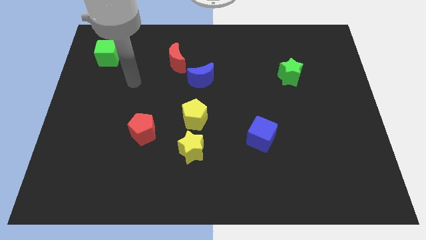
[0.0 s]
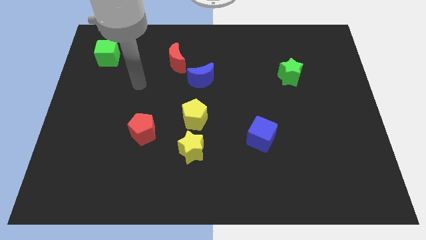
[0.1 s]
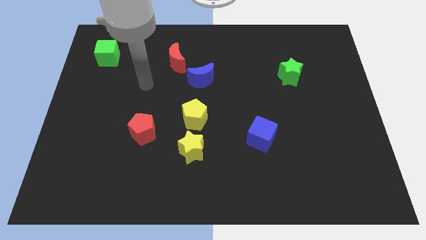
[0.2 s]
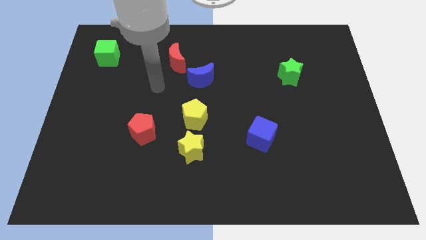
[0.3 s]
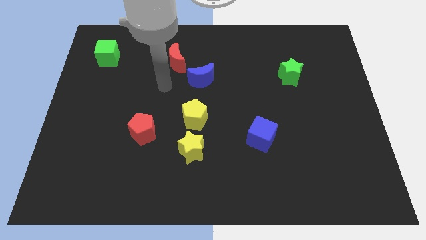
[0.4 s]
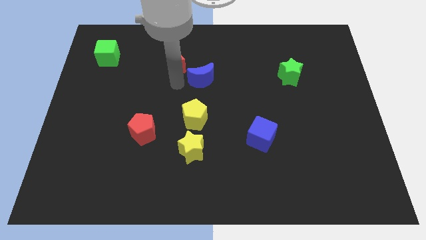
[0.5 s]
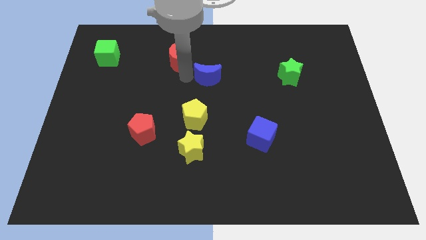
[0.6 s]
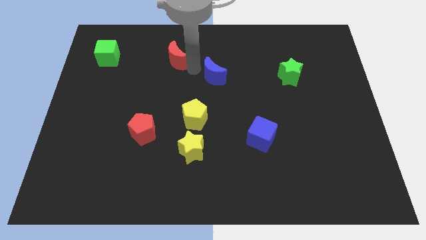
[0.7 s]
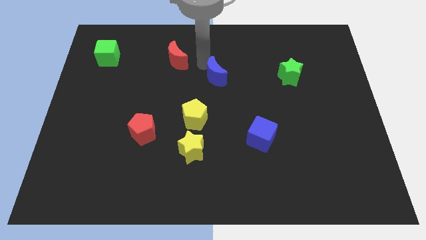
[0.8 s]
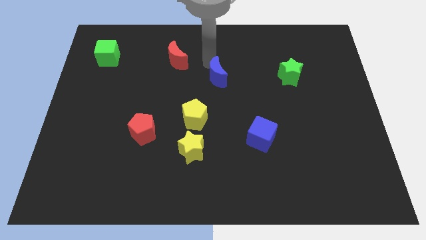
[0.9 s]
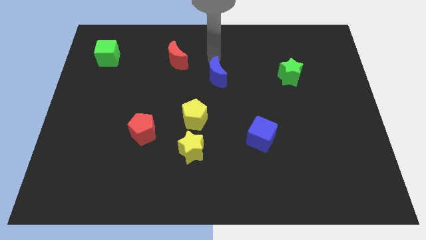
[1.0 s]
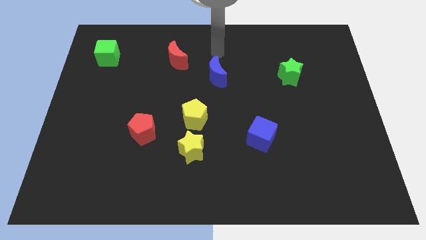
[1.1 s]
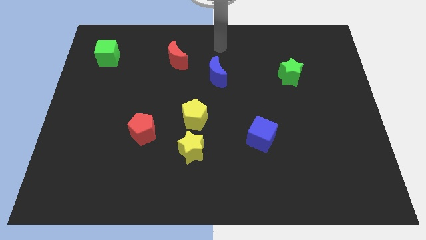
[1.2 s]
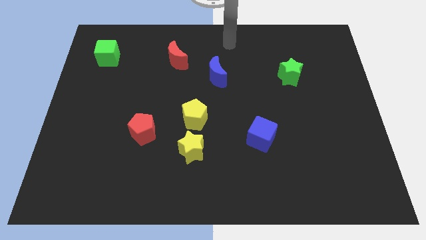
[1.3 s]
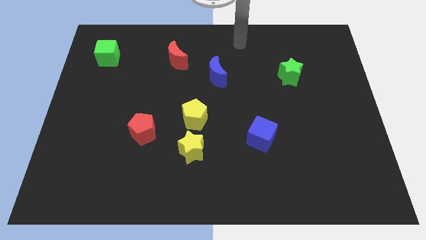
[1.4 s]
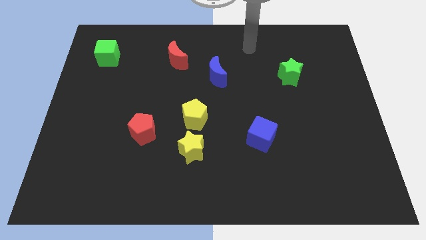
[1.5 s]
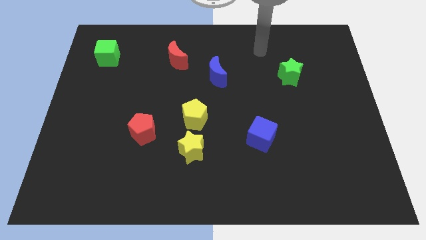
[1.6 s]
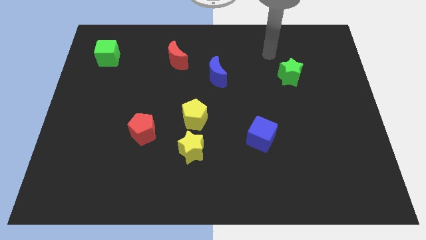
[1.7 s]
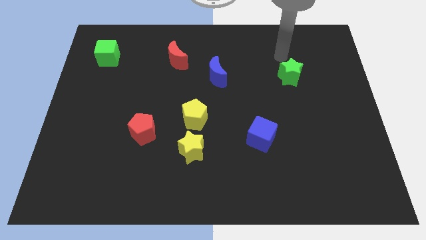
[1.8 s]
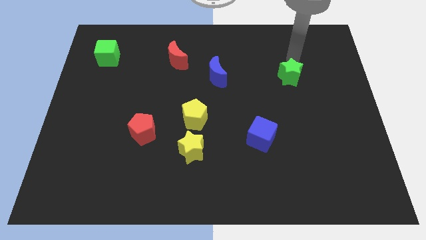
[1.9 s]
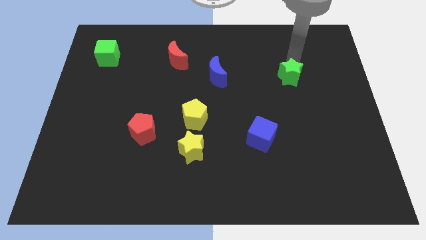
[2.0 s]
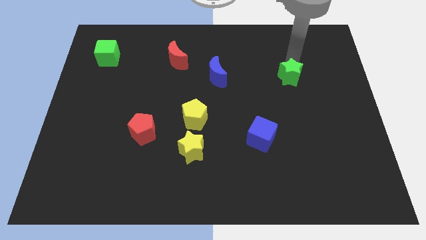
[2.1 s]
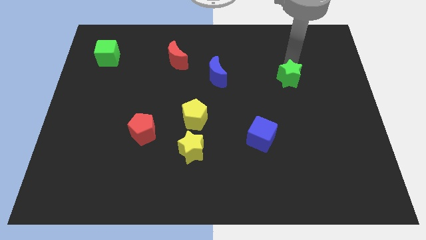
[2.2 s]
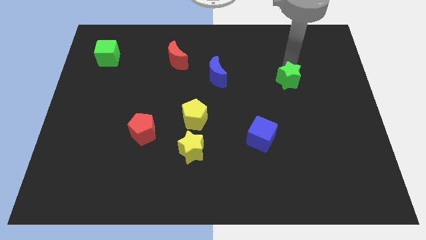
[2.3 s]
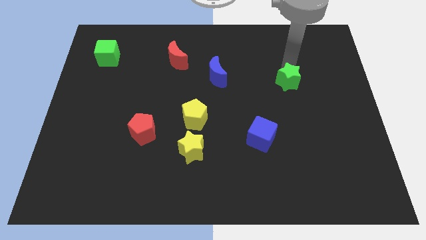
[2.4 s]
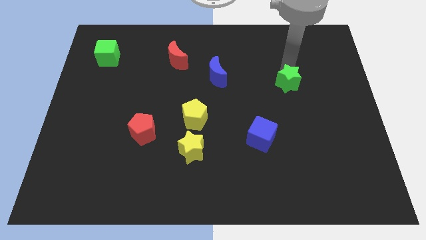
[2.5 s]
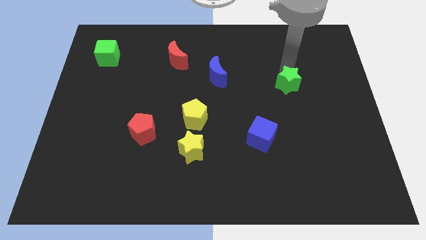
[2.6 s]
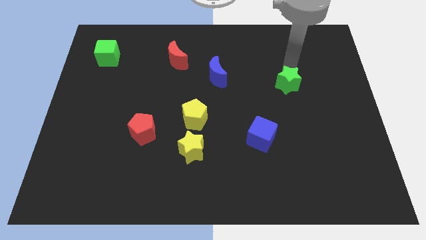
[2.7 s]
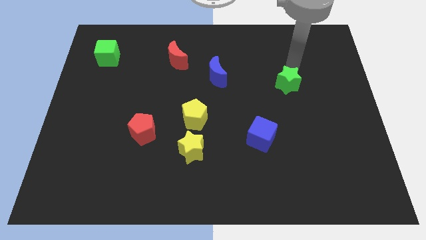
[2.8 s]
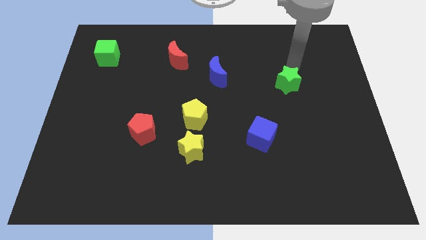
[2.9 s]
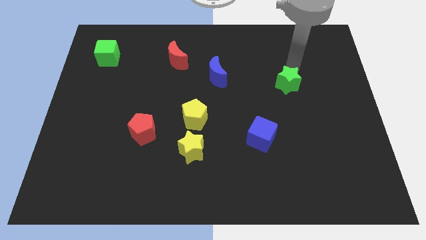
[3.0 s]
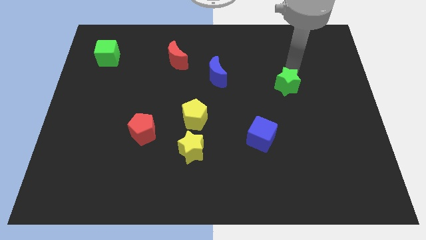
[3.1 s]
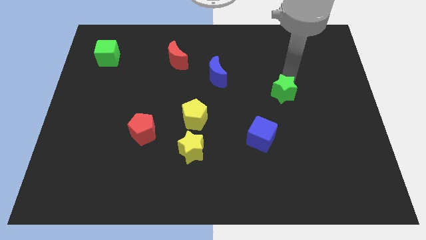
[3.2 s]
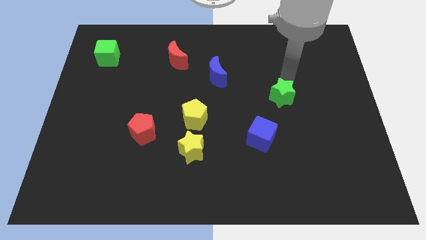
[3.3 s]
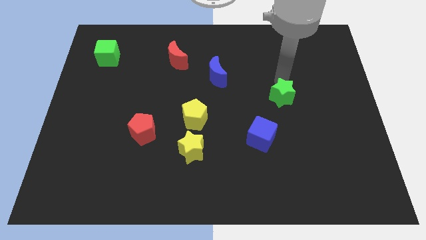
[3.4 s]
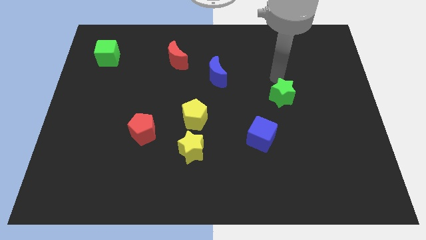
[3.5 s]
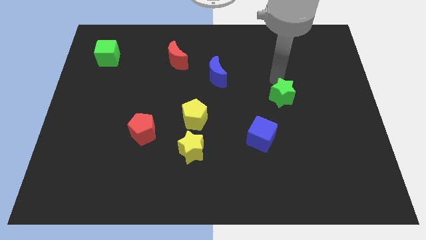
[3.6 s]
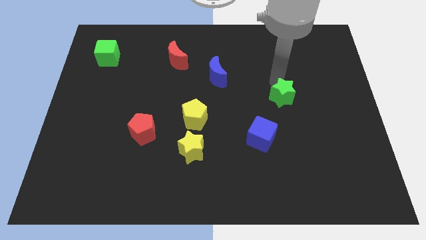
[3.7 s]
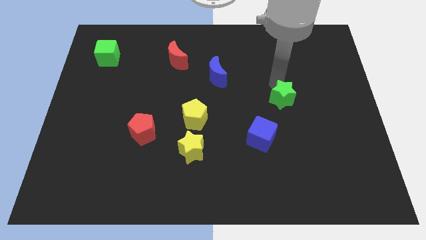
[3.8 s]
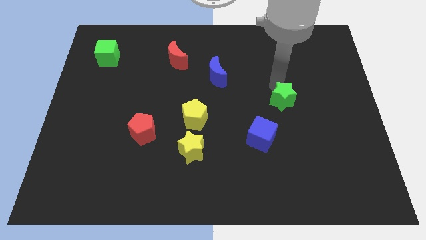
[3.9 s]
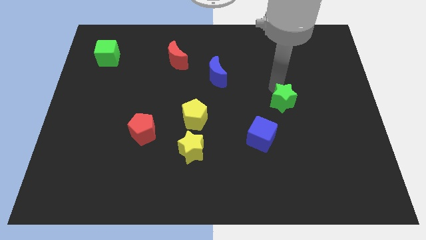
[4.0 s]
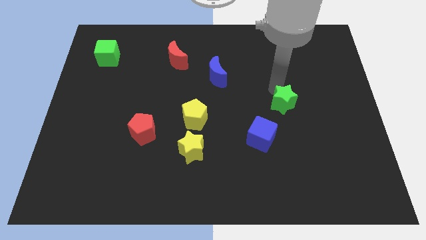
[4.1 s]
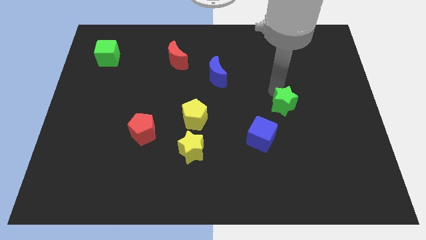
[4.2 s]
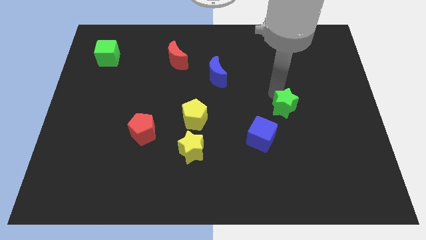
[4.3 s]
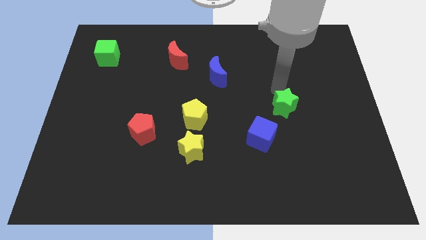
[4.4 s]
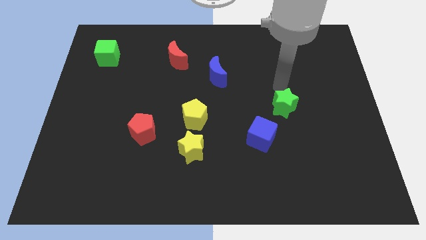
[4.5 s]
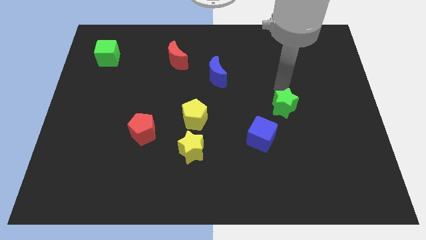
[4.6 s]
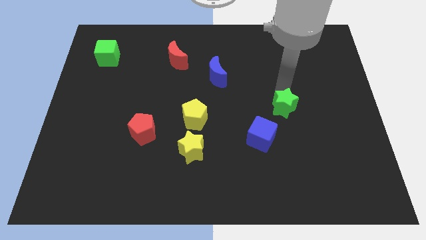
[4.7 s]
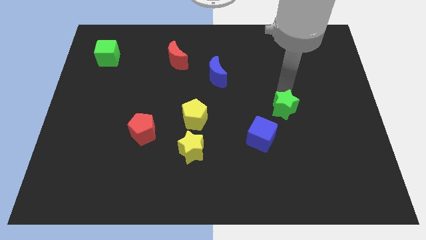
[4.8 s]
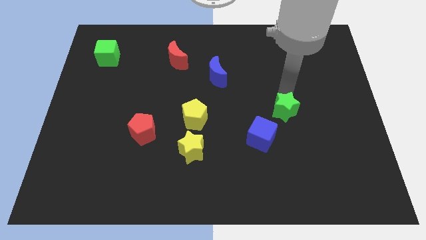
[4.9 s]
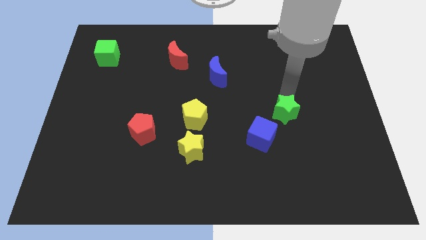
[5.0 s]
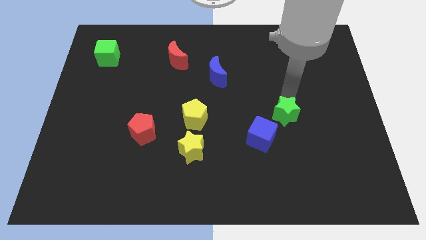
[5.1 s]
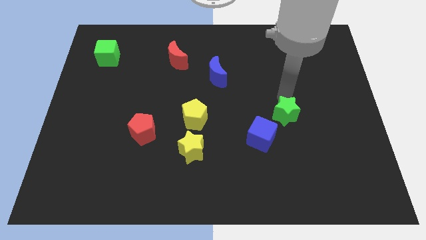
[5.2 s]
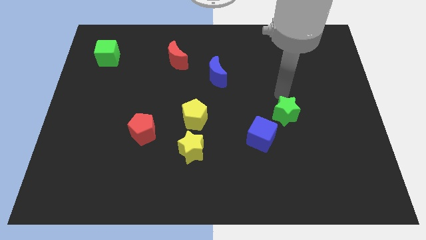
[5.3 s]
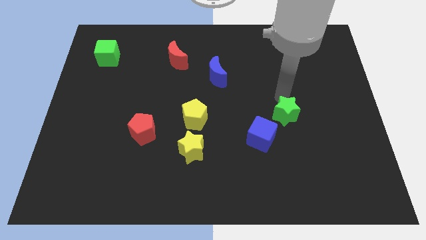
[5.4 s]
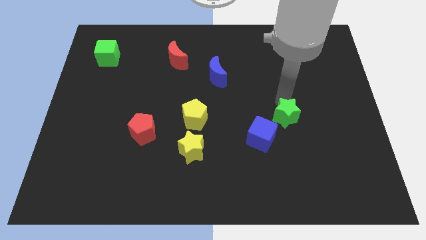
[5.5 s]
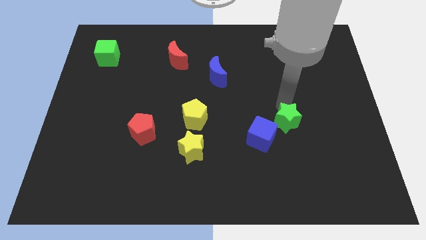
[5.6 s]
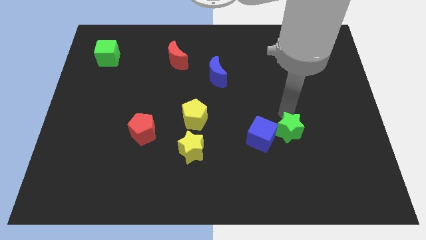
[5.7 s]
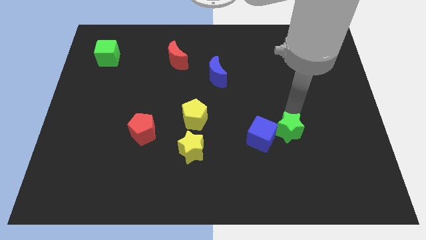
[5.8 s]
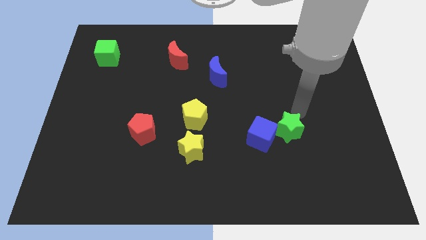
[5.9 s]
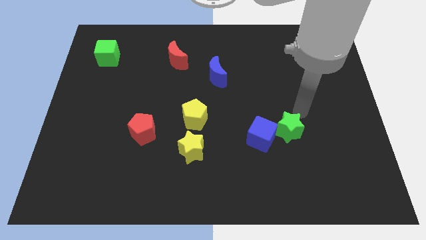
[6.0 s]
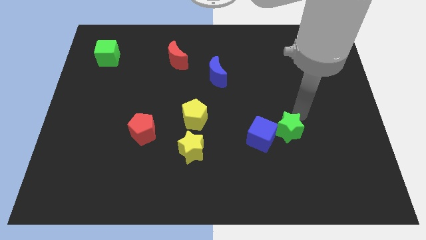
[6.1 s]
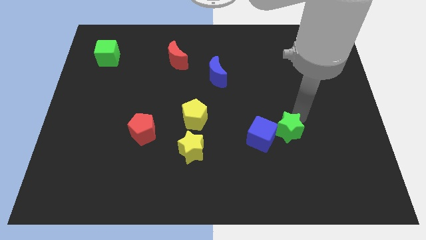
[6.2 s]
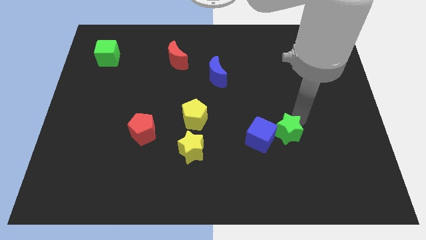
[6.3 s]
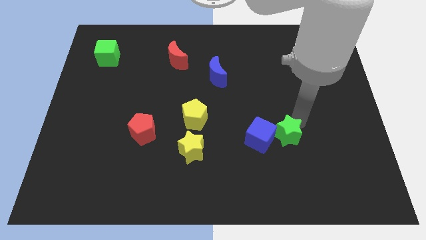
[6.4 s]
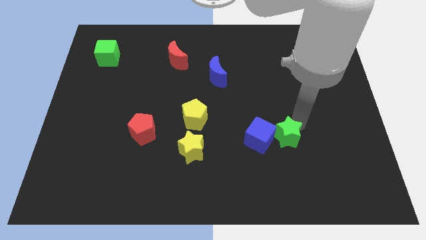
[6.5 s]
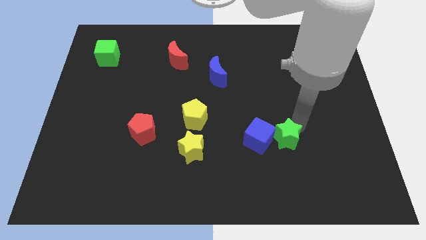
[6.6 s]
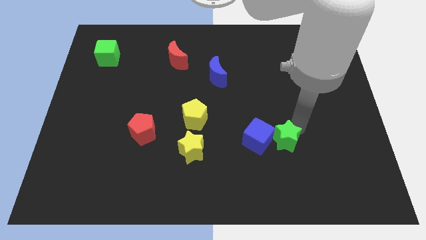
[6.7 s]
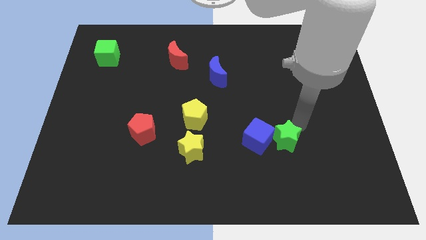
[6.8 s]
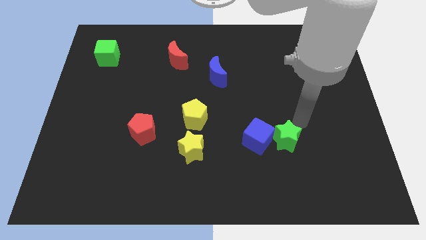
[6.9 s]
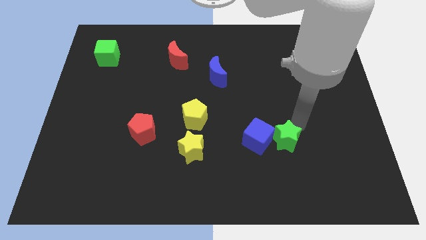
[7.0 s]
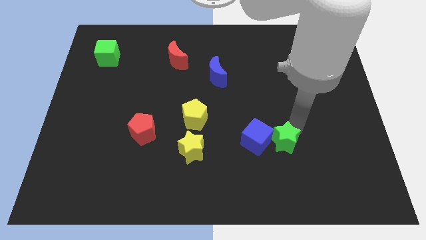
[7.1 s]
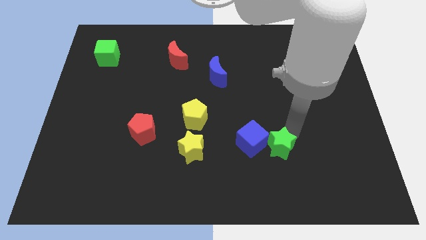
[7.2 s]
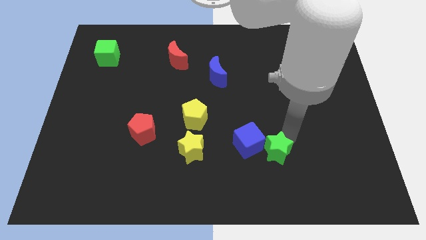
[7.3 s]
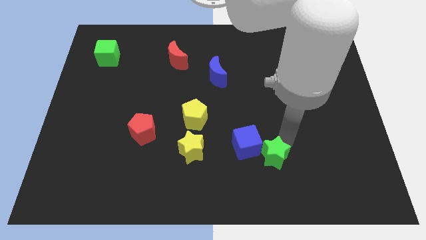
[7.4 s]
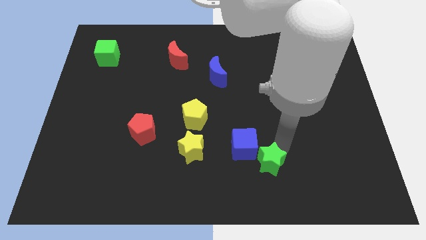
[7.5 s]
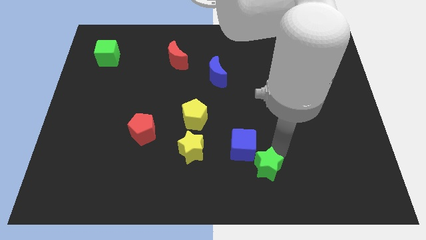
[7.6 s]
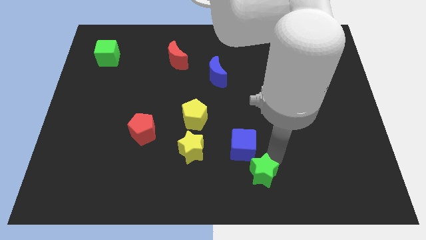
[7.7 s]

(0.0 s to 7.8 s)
put the green star to the bottom side

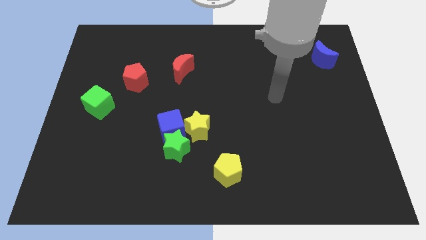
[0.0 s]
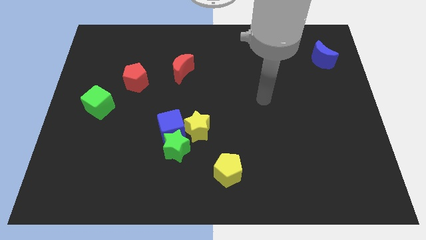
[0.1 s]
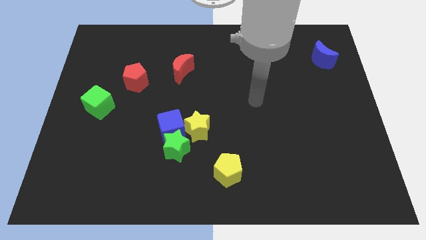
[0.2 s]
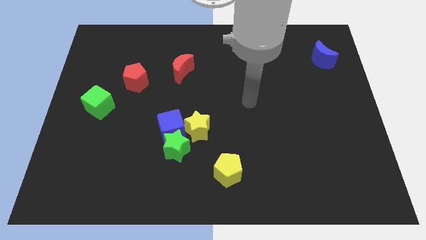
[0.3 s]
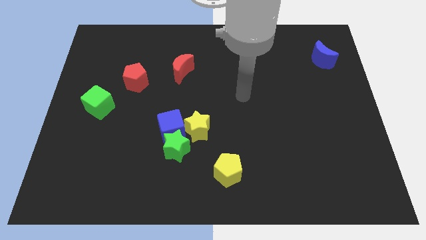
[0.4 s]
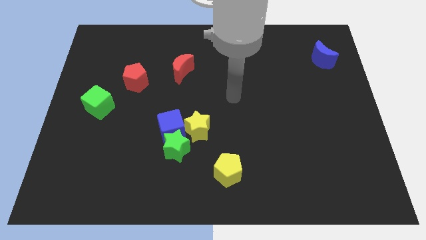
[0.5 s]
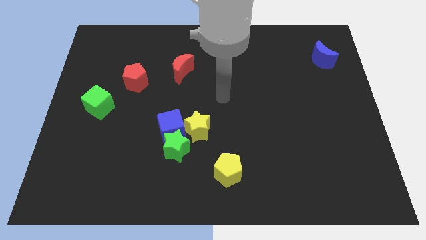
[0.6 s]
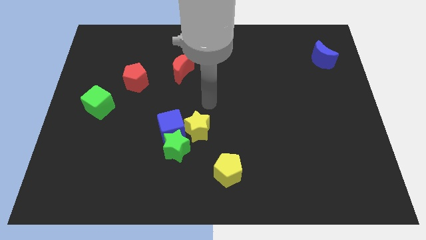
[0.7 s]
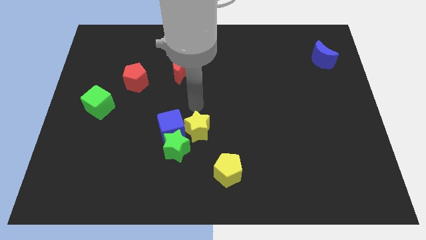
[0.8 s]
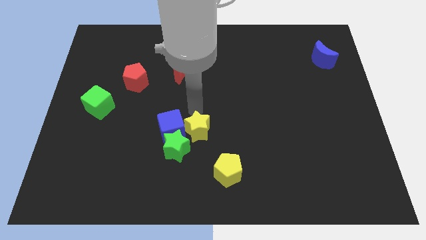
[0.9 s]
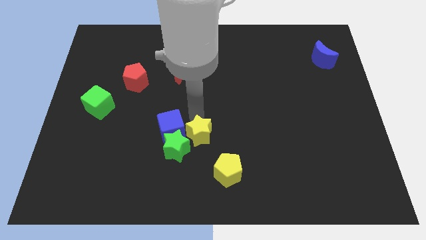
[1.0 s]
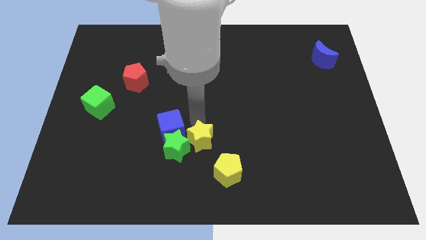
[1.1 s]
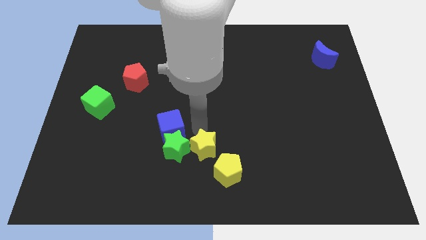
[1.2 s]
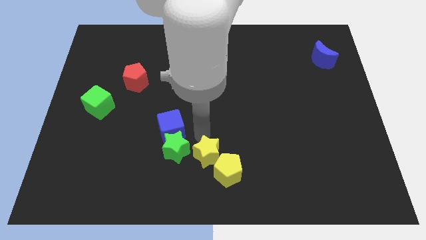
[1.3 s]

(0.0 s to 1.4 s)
push the yellow star to the bottom side
